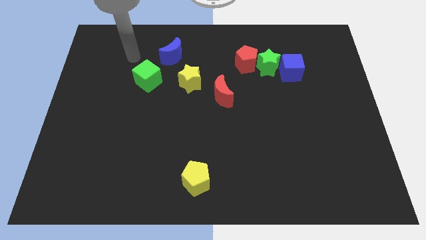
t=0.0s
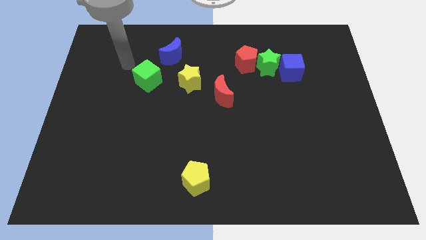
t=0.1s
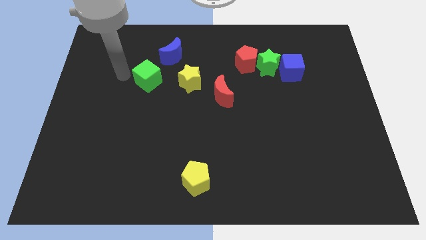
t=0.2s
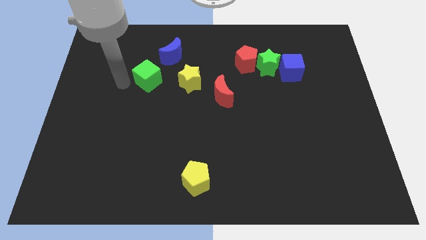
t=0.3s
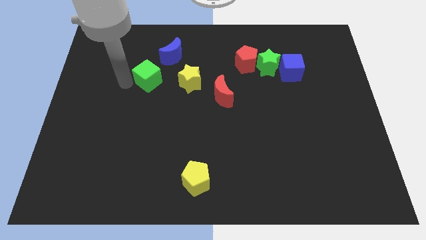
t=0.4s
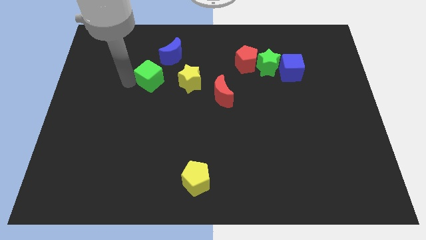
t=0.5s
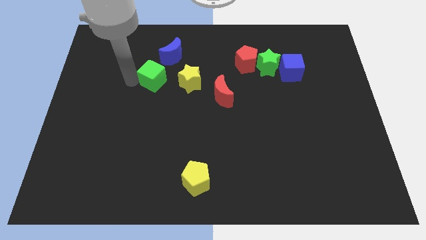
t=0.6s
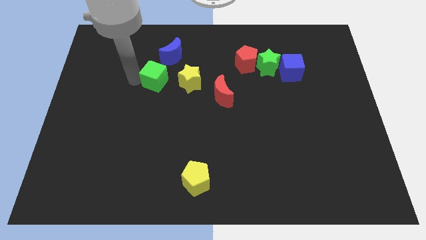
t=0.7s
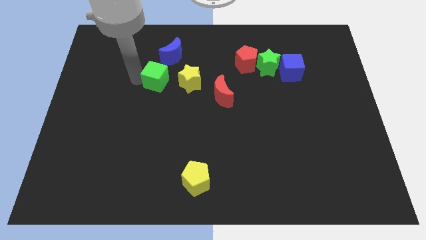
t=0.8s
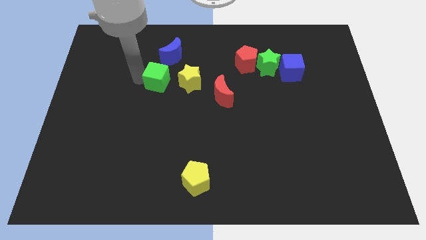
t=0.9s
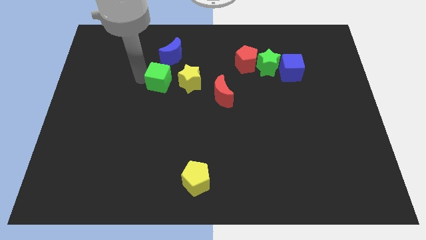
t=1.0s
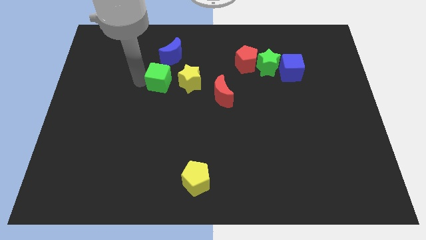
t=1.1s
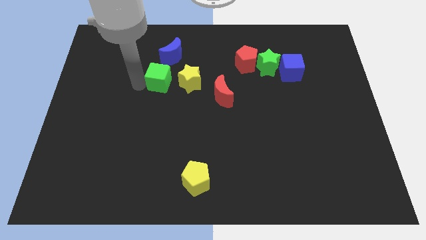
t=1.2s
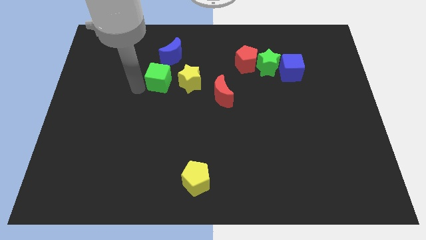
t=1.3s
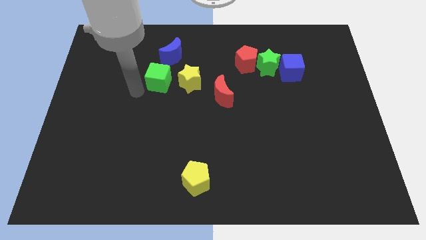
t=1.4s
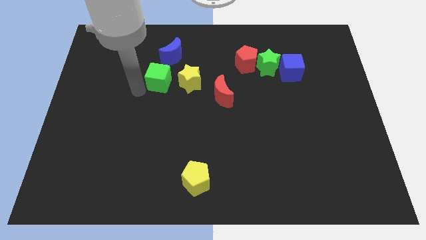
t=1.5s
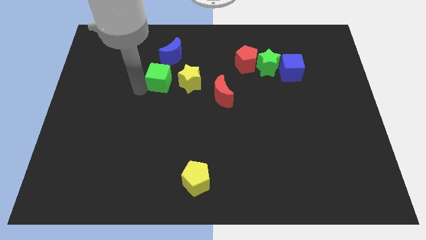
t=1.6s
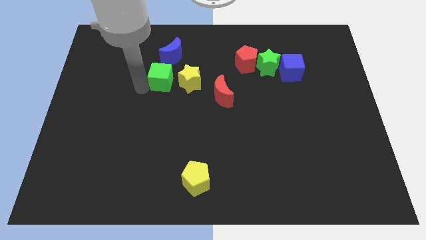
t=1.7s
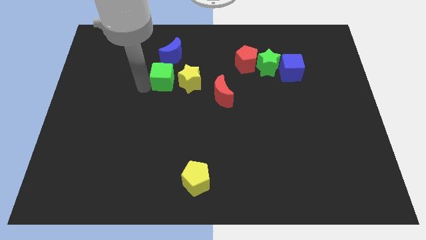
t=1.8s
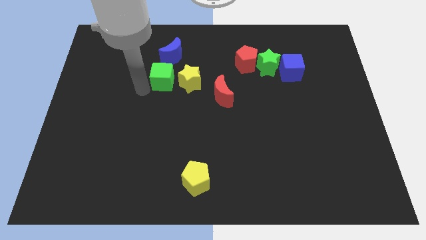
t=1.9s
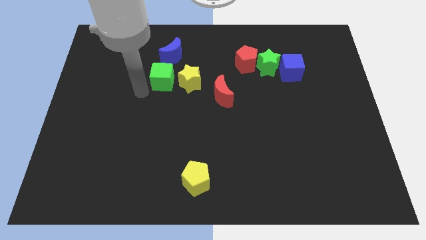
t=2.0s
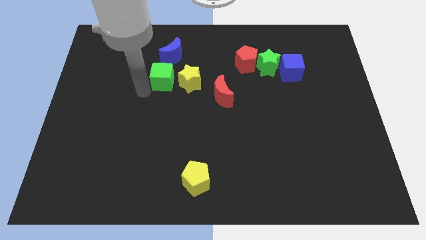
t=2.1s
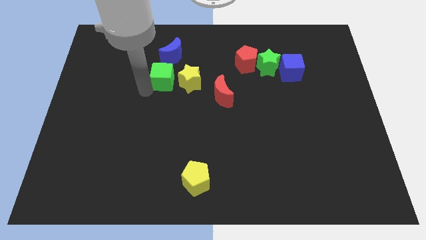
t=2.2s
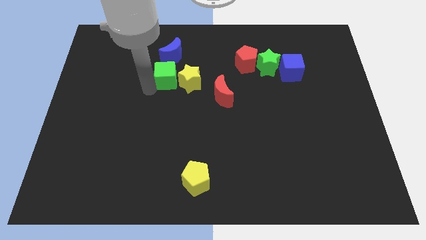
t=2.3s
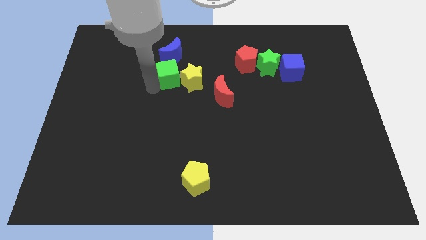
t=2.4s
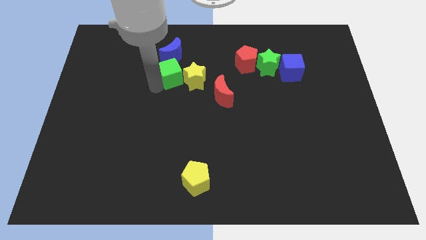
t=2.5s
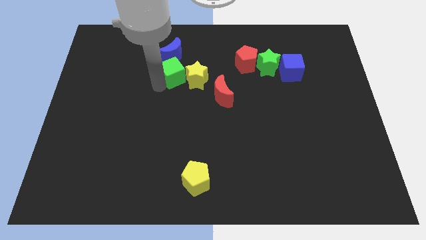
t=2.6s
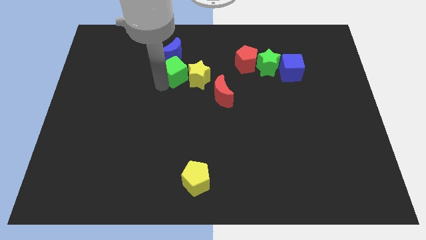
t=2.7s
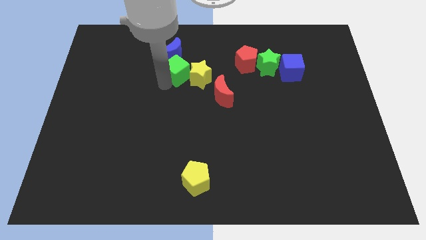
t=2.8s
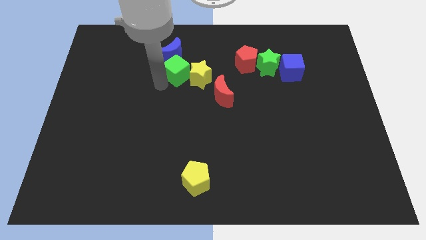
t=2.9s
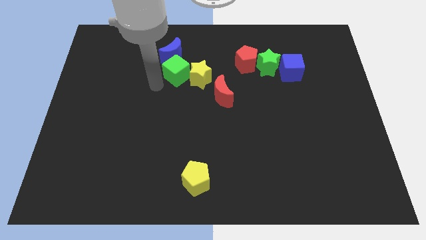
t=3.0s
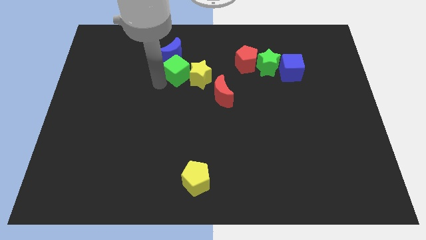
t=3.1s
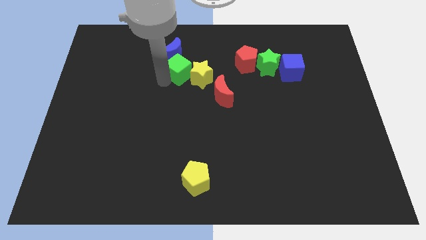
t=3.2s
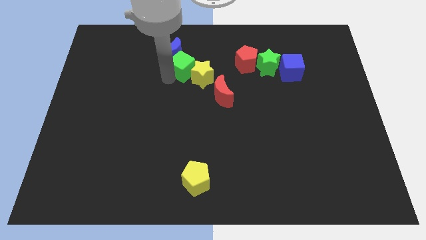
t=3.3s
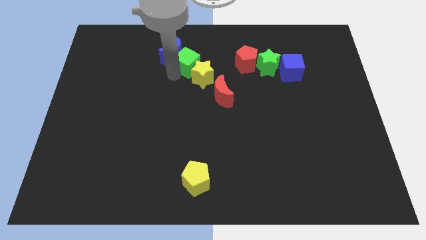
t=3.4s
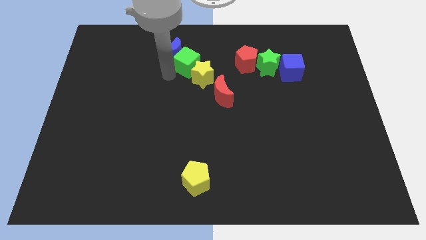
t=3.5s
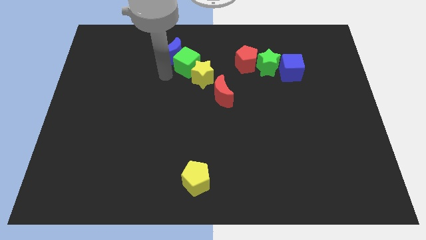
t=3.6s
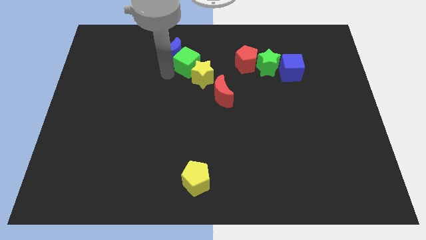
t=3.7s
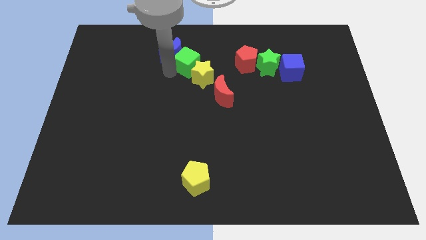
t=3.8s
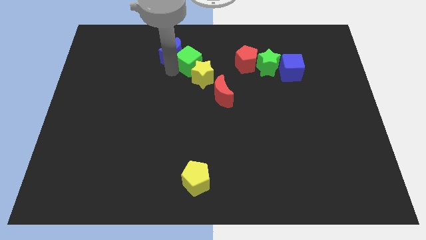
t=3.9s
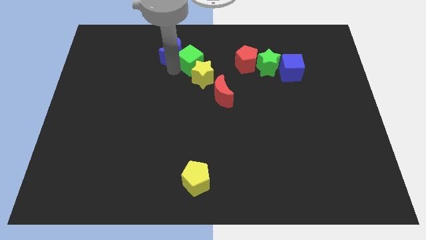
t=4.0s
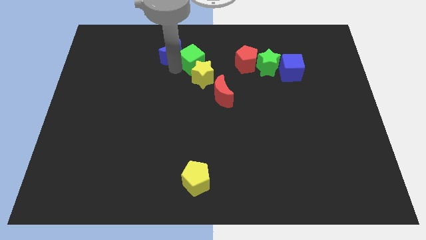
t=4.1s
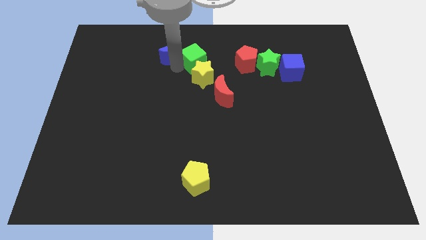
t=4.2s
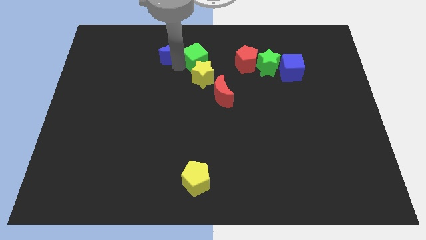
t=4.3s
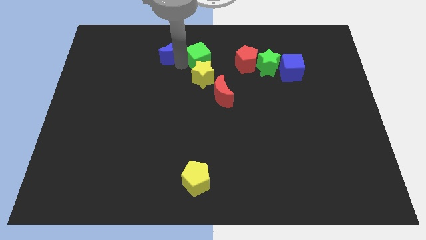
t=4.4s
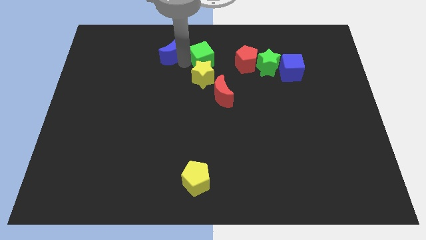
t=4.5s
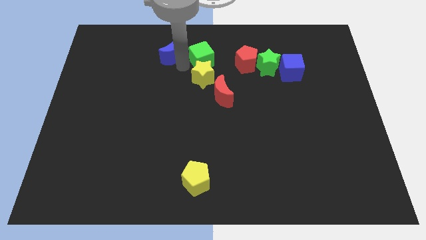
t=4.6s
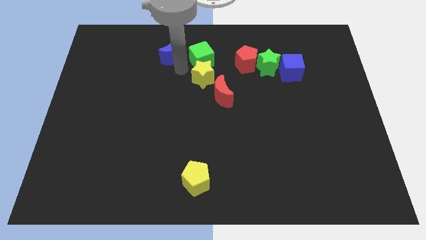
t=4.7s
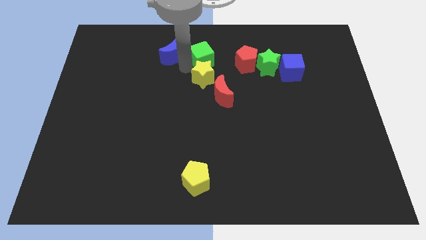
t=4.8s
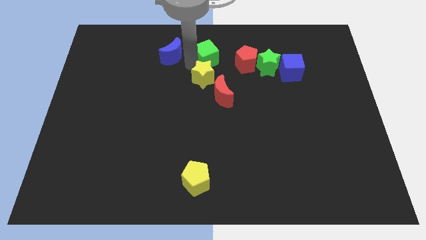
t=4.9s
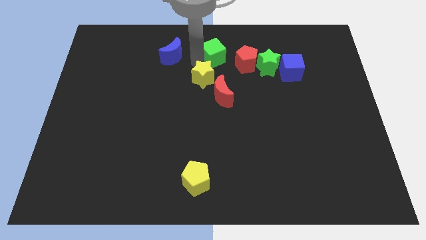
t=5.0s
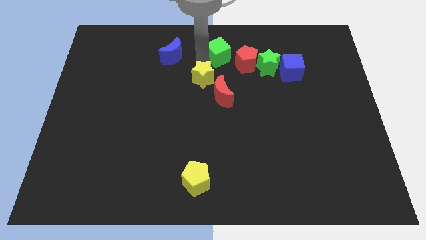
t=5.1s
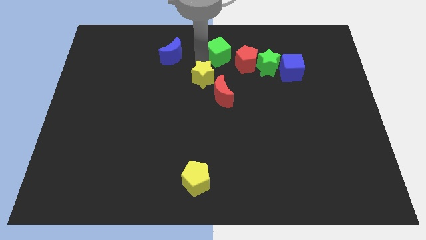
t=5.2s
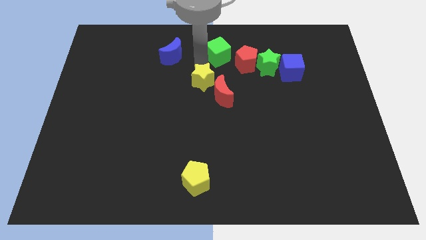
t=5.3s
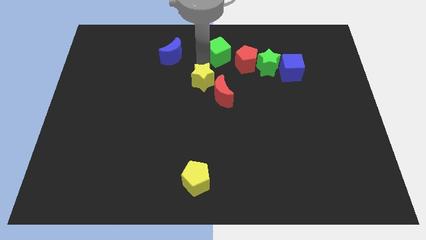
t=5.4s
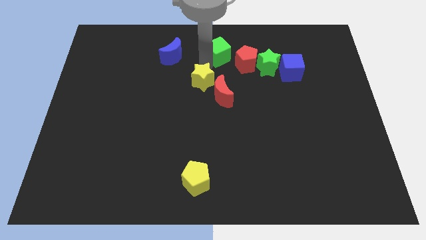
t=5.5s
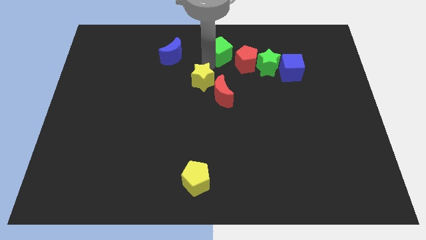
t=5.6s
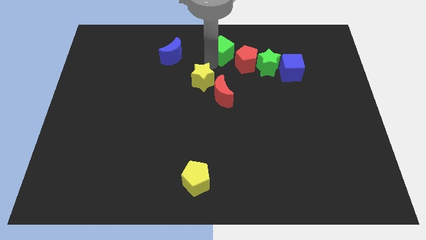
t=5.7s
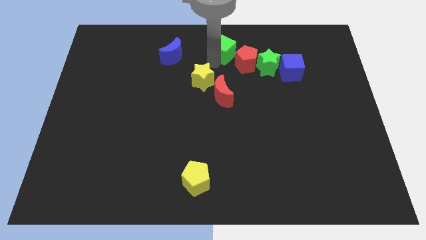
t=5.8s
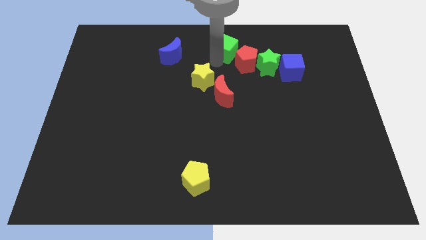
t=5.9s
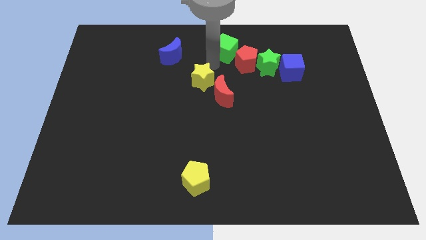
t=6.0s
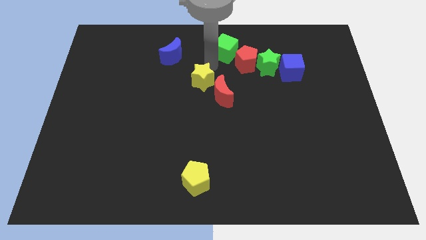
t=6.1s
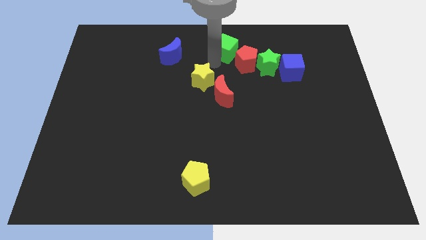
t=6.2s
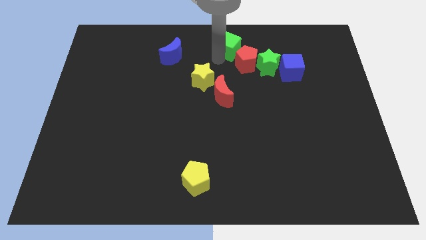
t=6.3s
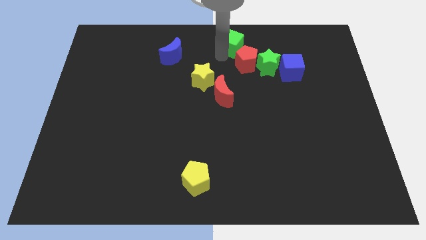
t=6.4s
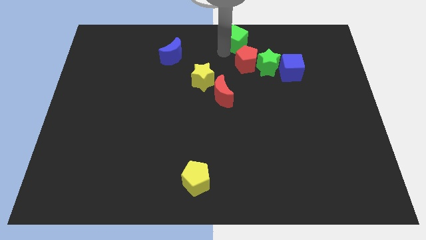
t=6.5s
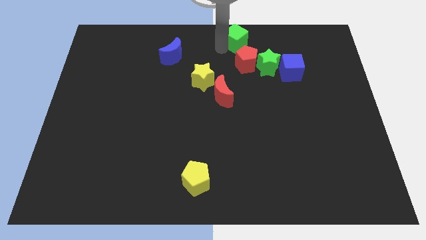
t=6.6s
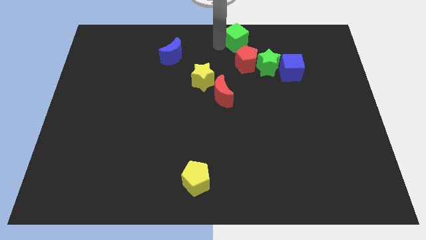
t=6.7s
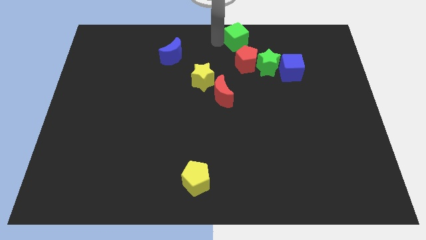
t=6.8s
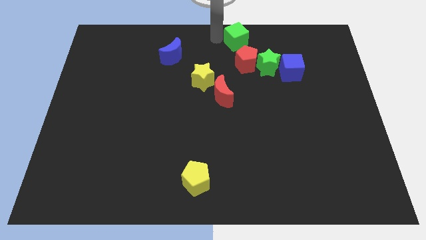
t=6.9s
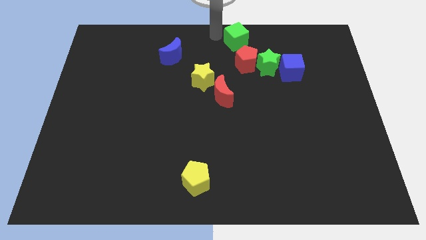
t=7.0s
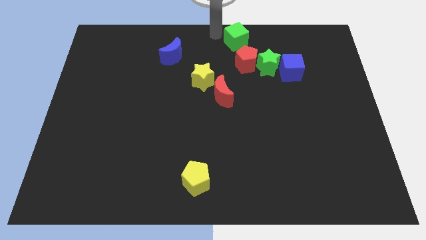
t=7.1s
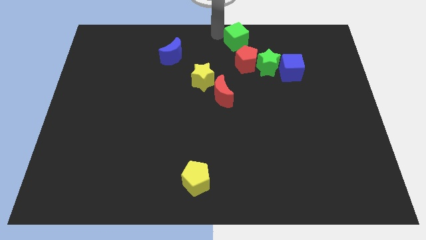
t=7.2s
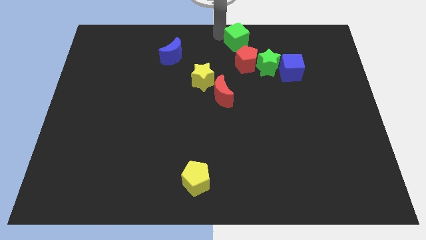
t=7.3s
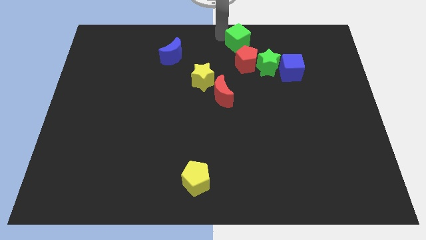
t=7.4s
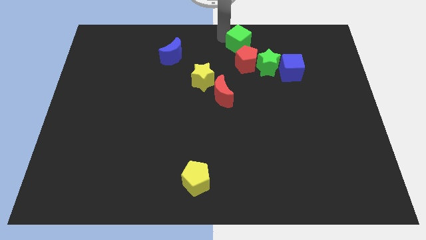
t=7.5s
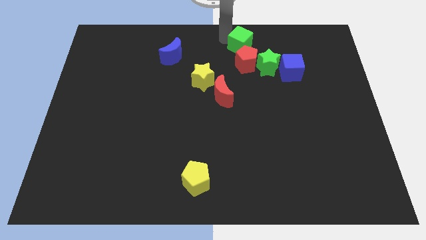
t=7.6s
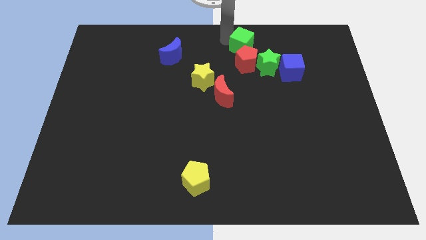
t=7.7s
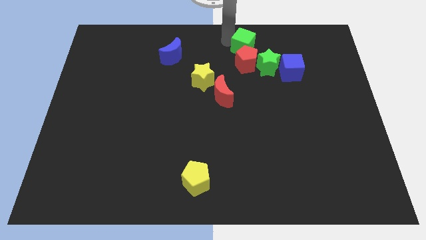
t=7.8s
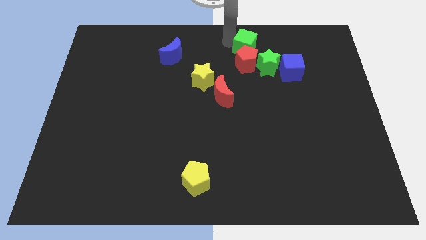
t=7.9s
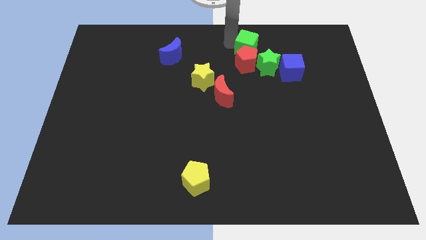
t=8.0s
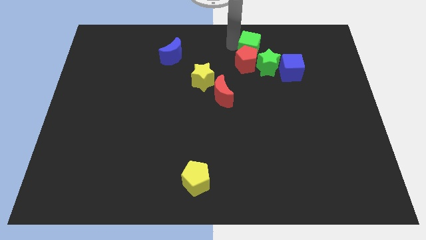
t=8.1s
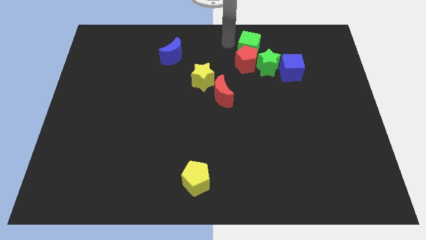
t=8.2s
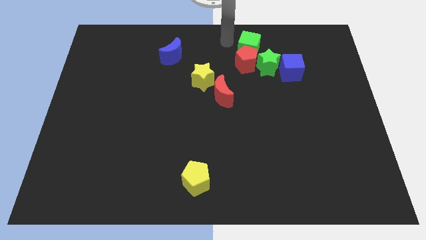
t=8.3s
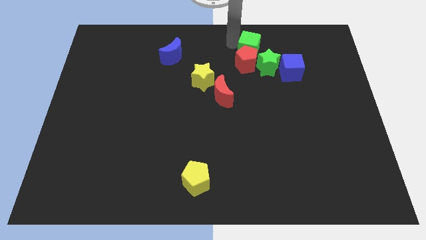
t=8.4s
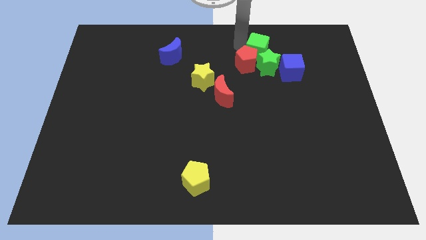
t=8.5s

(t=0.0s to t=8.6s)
move the green cube to the right side of the red pentagon
